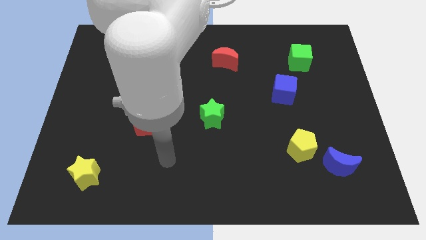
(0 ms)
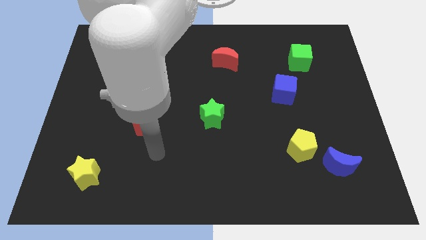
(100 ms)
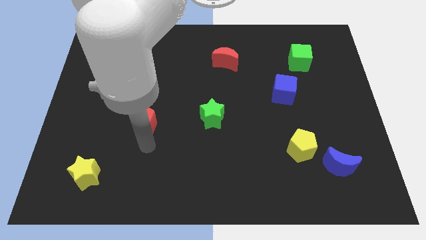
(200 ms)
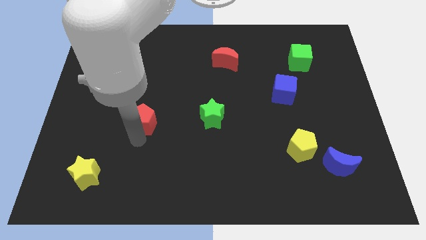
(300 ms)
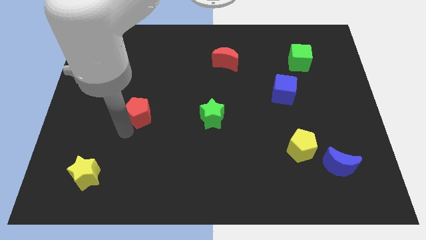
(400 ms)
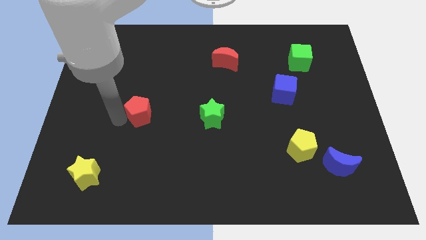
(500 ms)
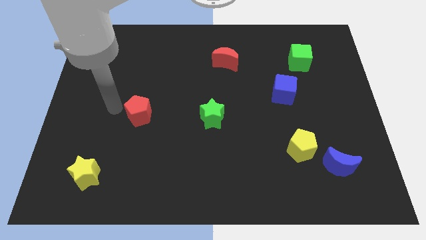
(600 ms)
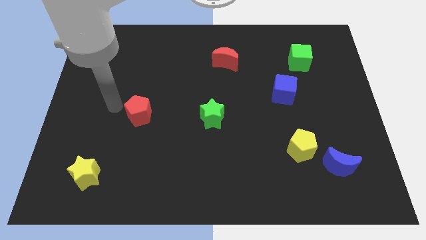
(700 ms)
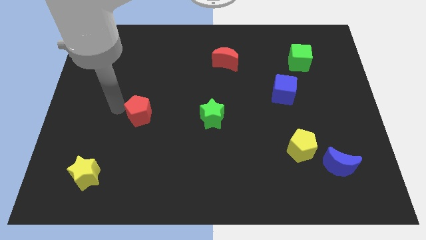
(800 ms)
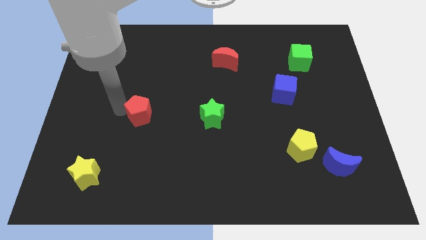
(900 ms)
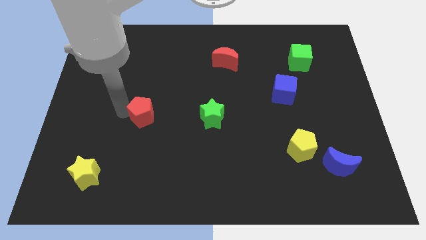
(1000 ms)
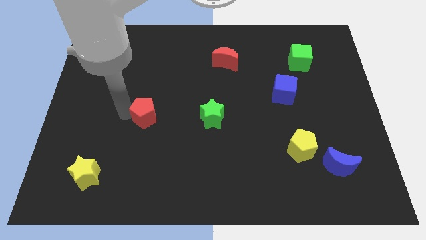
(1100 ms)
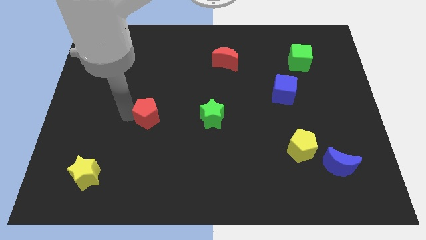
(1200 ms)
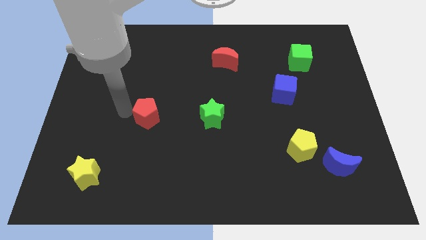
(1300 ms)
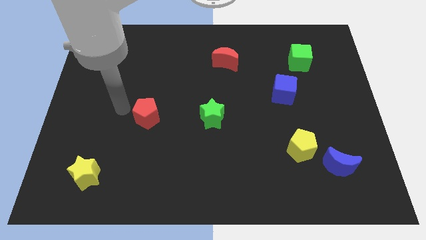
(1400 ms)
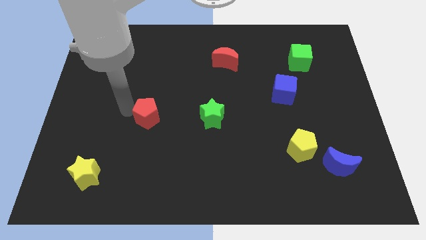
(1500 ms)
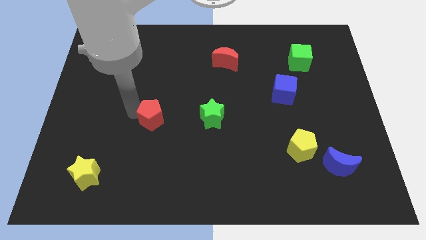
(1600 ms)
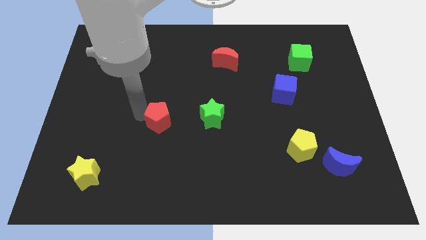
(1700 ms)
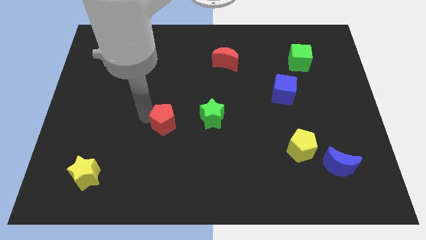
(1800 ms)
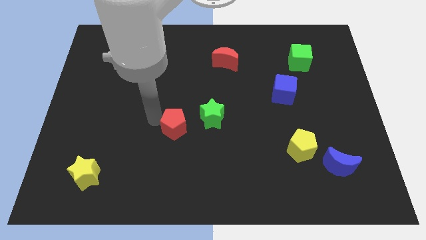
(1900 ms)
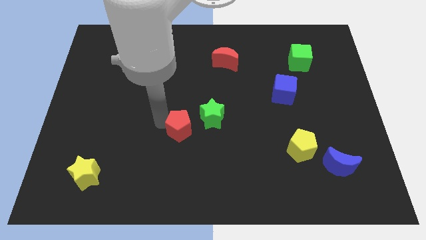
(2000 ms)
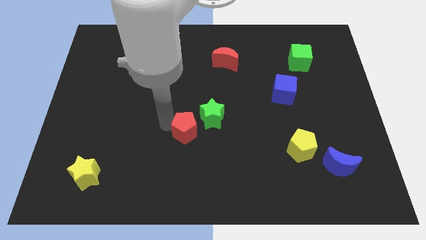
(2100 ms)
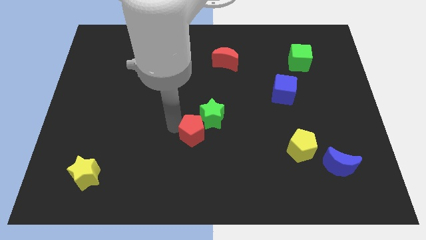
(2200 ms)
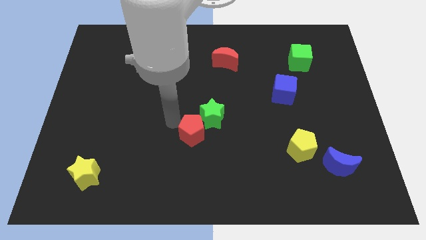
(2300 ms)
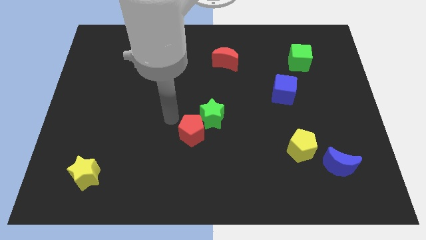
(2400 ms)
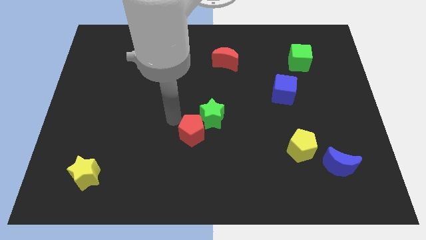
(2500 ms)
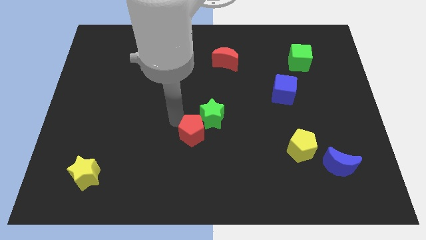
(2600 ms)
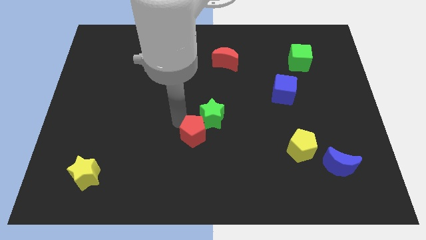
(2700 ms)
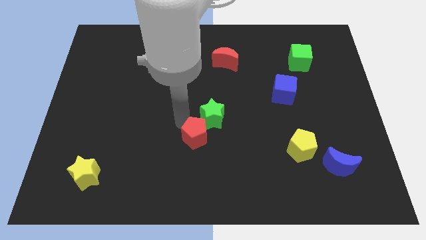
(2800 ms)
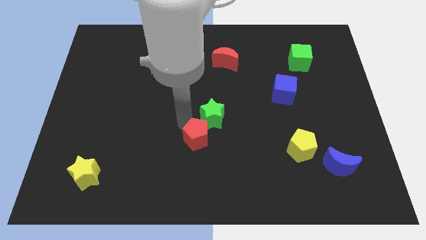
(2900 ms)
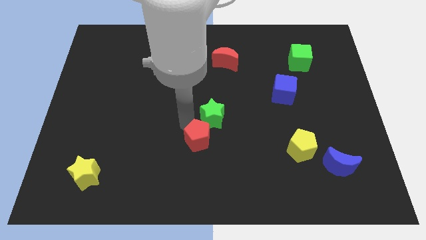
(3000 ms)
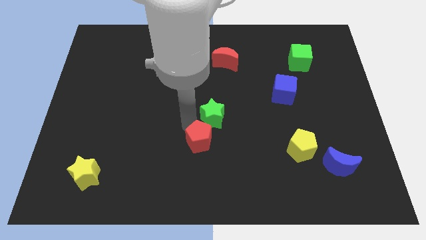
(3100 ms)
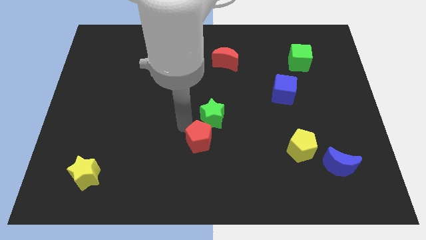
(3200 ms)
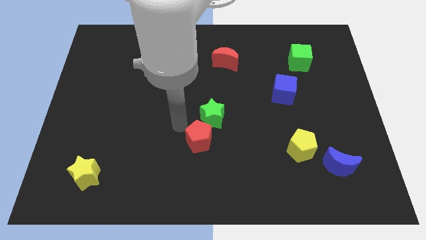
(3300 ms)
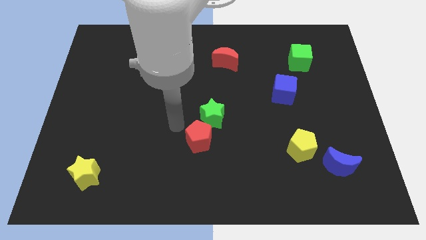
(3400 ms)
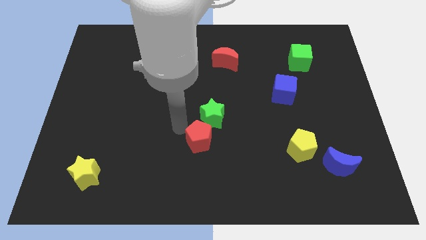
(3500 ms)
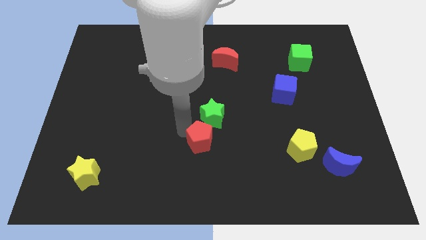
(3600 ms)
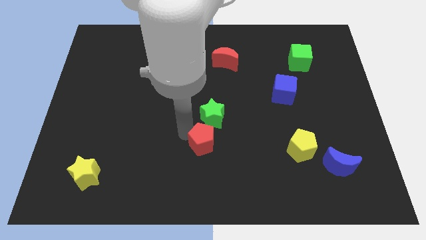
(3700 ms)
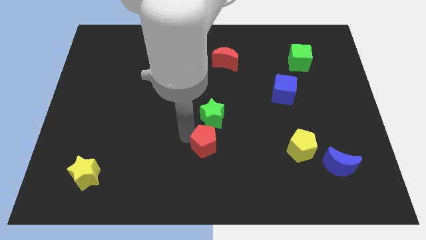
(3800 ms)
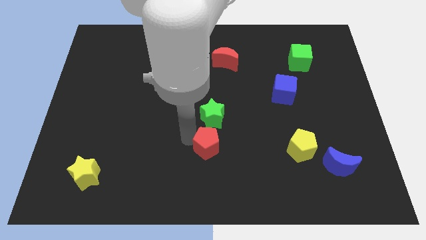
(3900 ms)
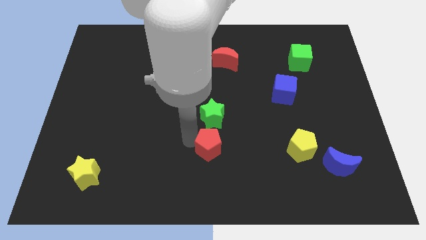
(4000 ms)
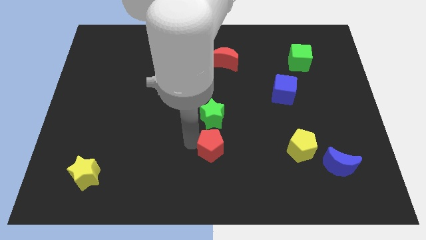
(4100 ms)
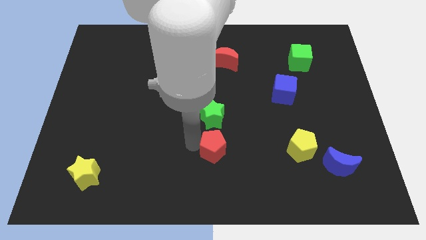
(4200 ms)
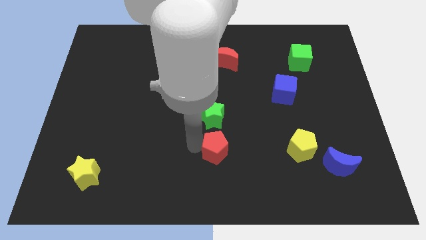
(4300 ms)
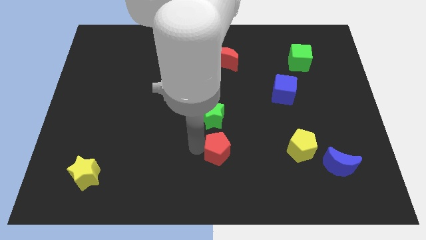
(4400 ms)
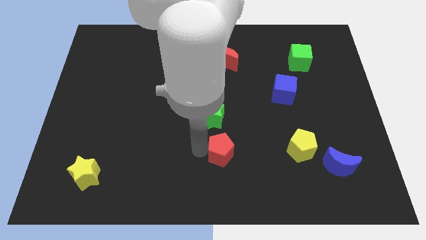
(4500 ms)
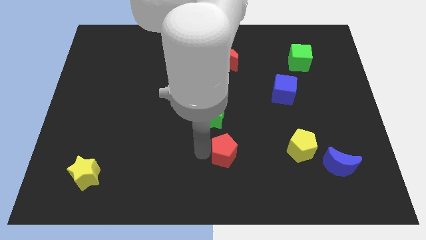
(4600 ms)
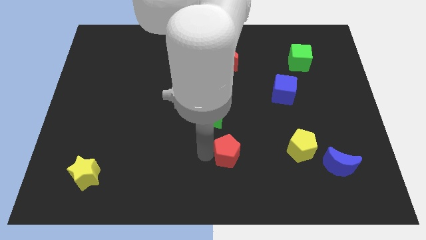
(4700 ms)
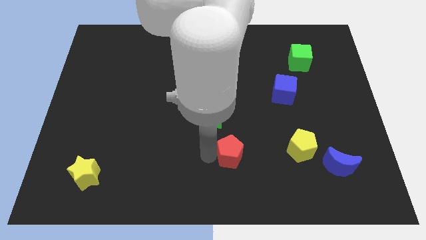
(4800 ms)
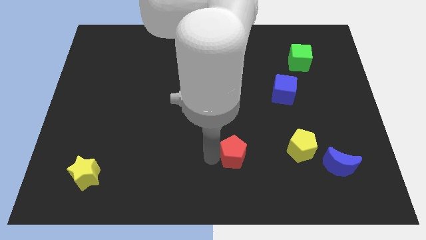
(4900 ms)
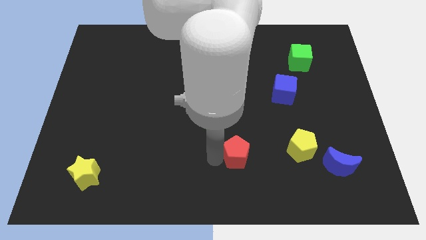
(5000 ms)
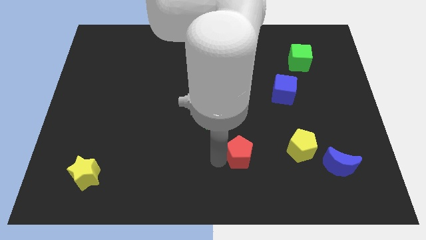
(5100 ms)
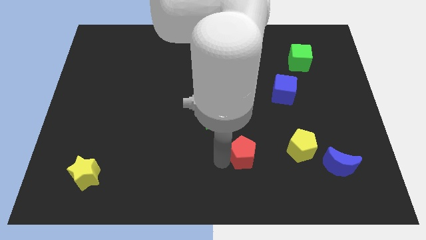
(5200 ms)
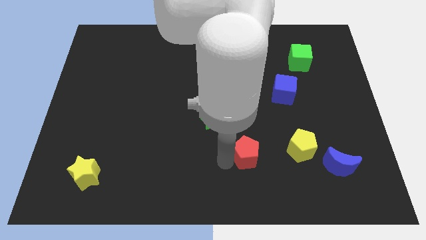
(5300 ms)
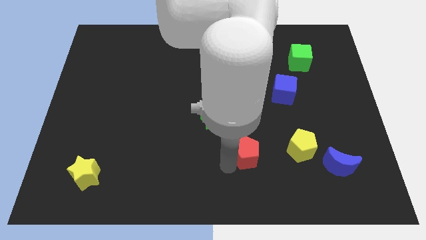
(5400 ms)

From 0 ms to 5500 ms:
push the red pentagon to the right

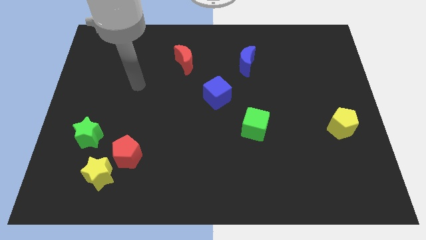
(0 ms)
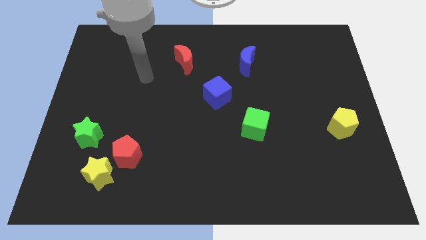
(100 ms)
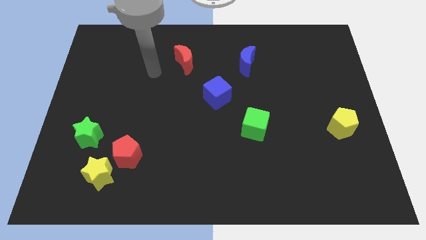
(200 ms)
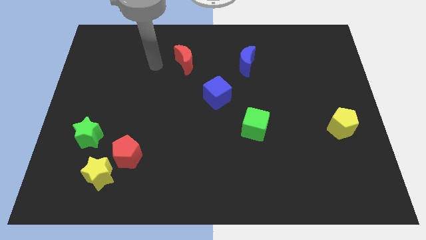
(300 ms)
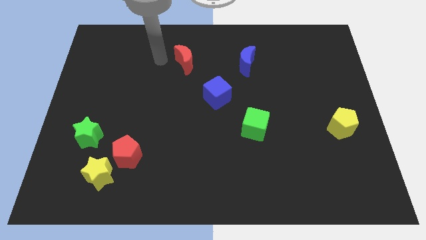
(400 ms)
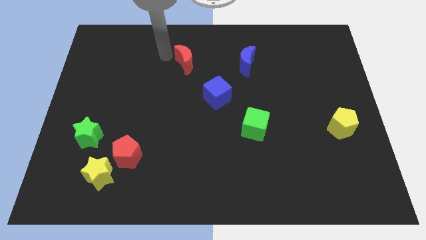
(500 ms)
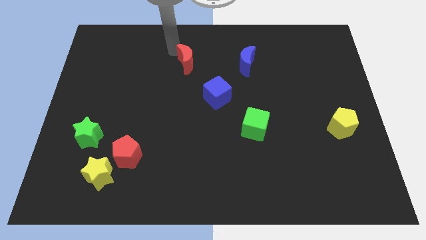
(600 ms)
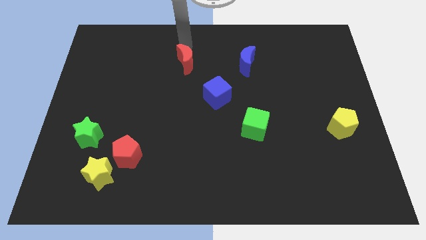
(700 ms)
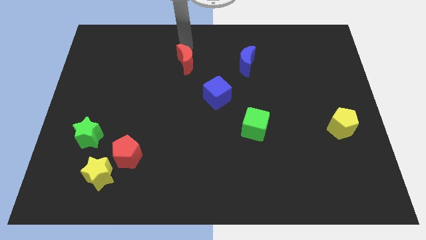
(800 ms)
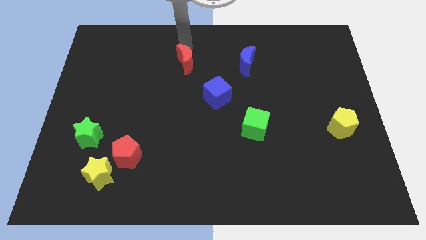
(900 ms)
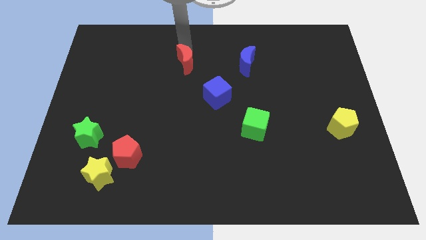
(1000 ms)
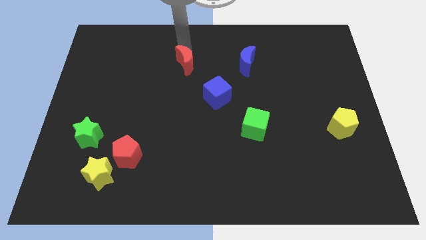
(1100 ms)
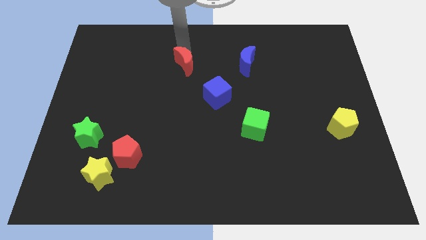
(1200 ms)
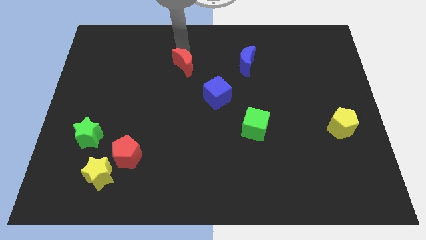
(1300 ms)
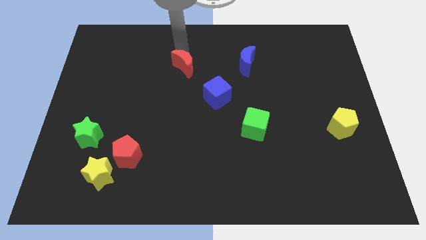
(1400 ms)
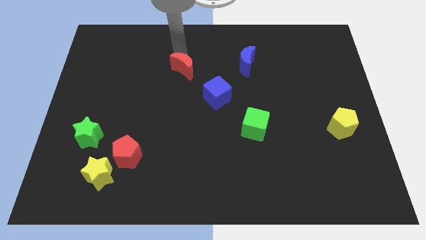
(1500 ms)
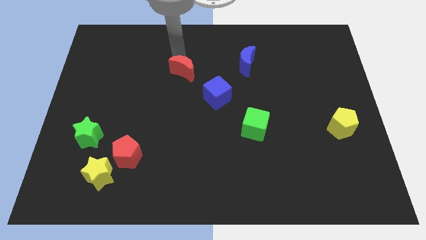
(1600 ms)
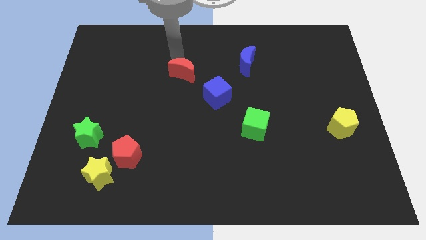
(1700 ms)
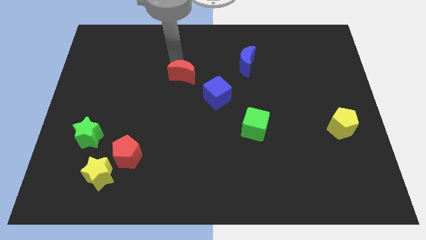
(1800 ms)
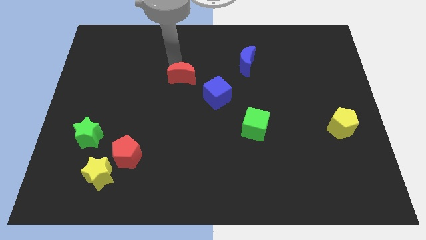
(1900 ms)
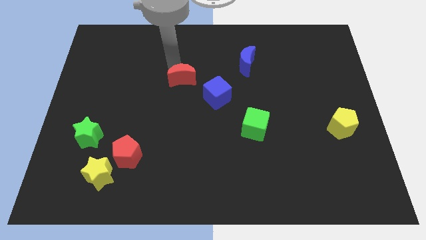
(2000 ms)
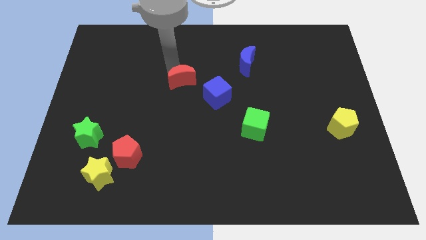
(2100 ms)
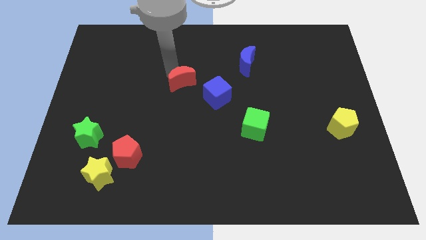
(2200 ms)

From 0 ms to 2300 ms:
slide the red moon down a little
